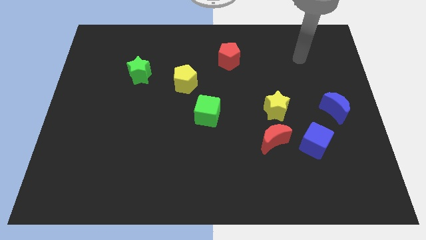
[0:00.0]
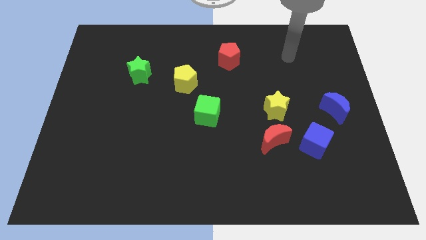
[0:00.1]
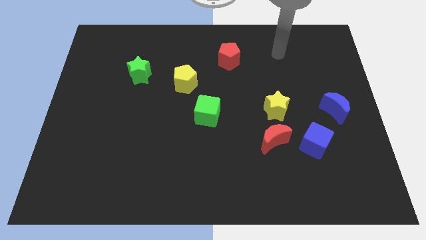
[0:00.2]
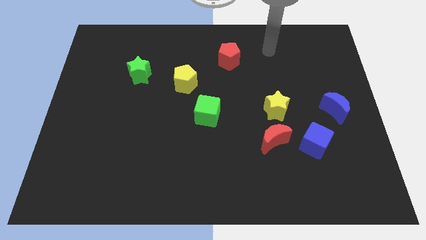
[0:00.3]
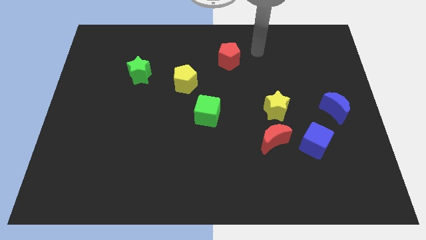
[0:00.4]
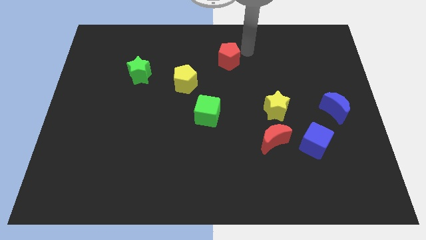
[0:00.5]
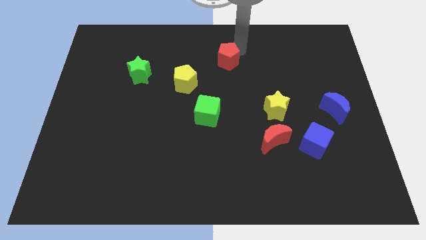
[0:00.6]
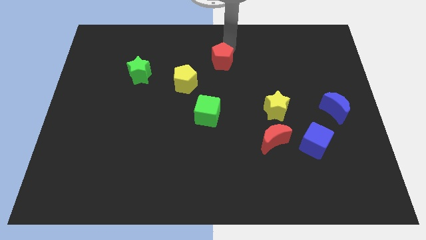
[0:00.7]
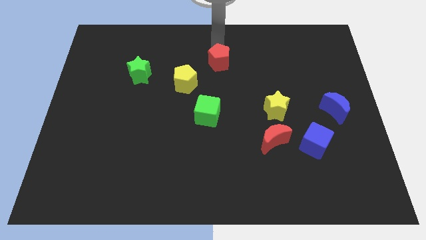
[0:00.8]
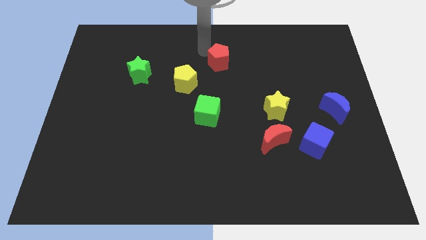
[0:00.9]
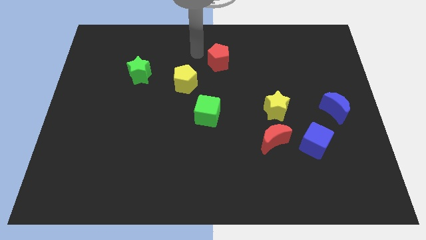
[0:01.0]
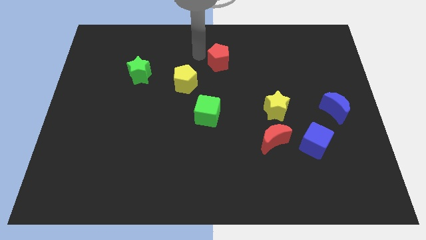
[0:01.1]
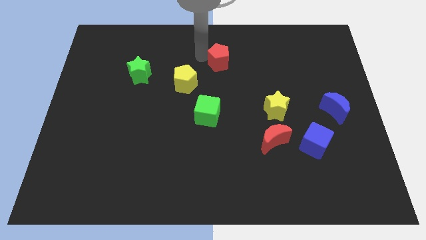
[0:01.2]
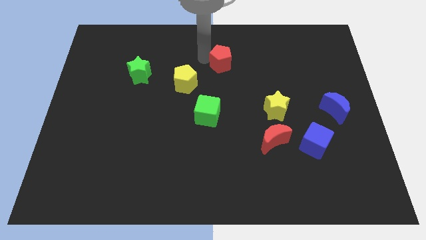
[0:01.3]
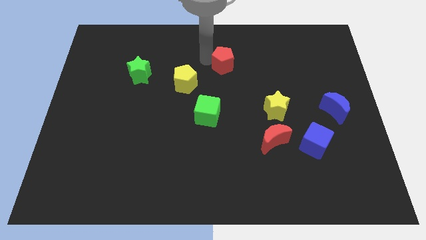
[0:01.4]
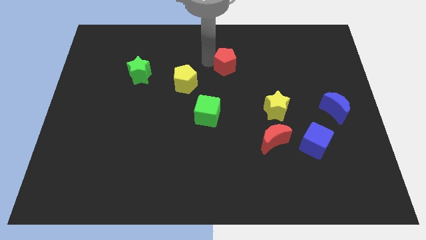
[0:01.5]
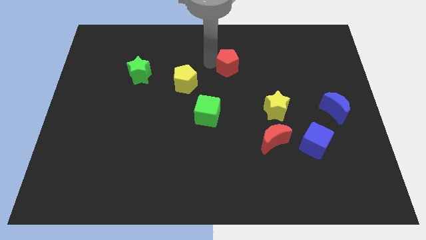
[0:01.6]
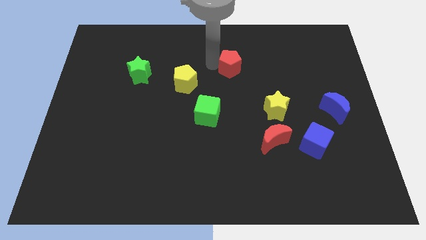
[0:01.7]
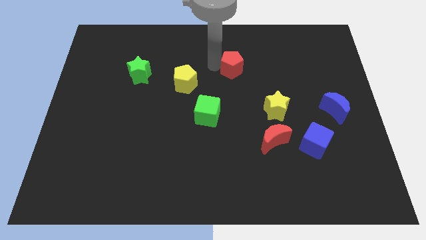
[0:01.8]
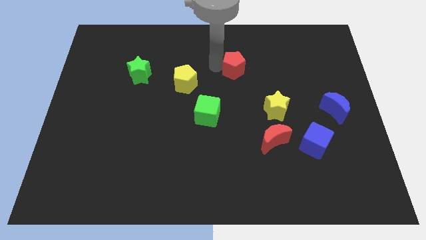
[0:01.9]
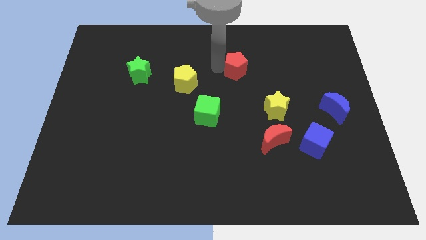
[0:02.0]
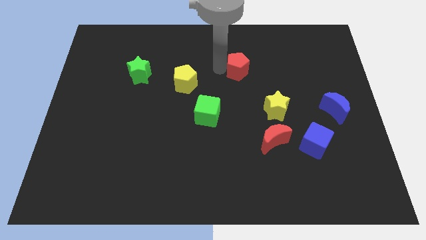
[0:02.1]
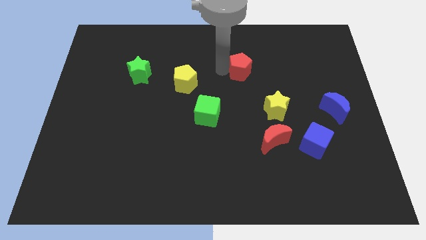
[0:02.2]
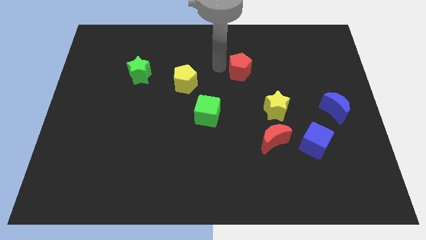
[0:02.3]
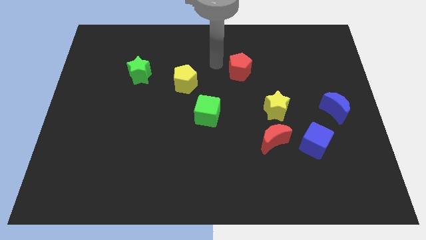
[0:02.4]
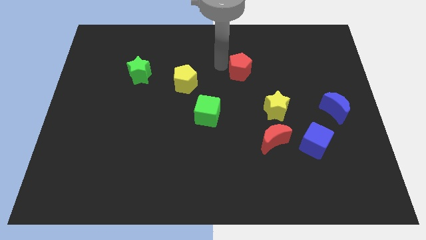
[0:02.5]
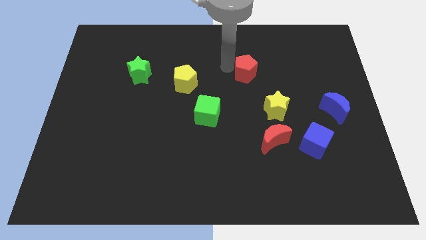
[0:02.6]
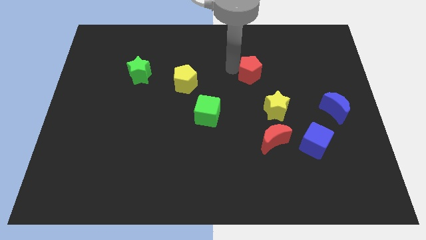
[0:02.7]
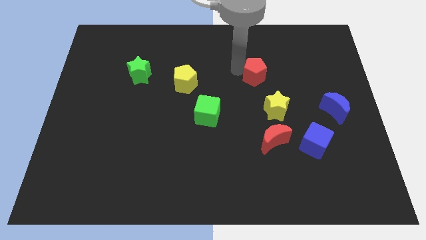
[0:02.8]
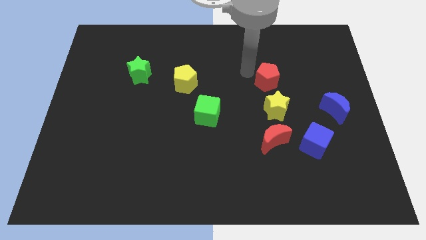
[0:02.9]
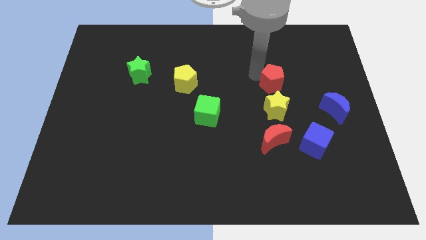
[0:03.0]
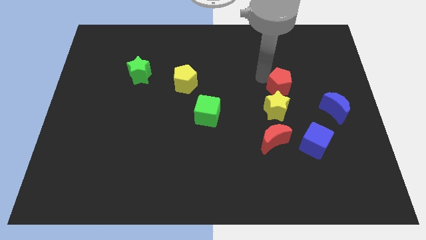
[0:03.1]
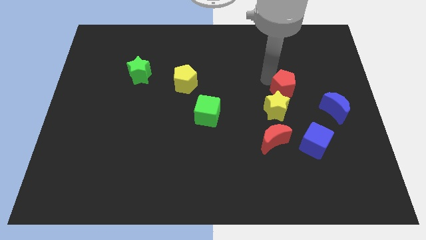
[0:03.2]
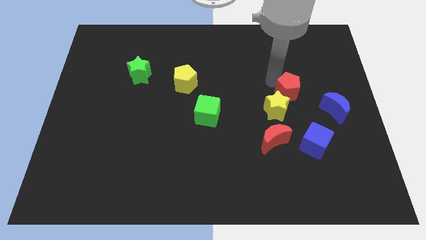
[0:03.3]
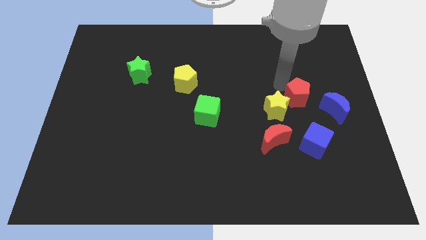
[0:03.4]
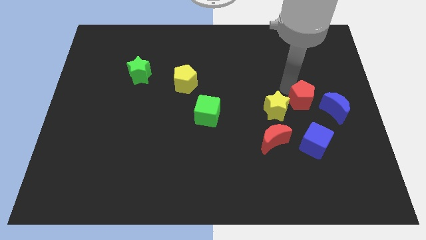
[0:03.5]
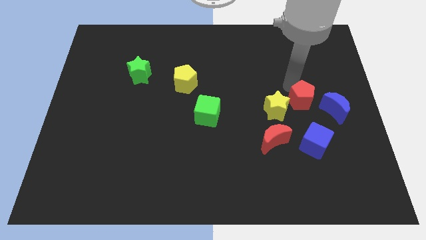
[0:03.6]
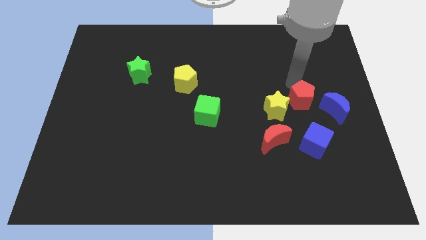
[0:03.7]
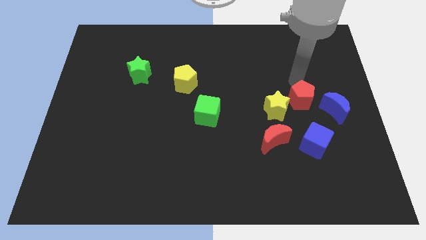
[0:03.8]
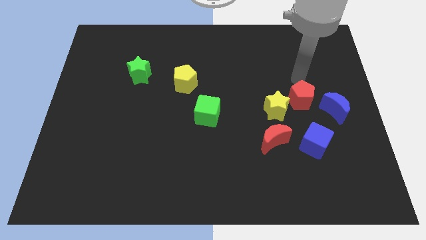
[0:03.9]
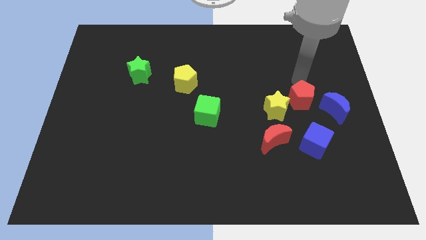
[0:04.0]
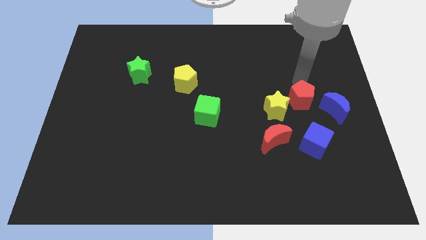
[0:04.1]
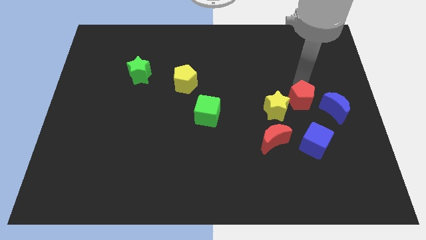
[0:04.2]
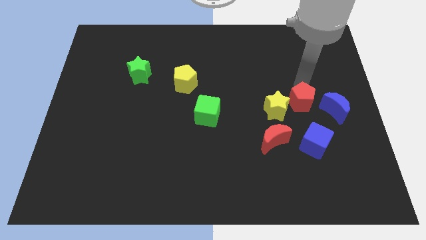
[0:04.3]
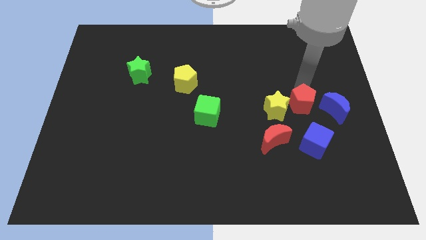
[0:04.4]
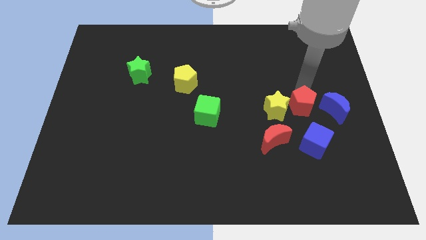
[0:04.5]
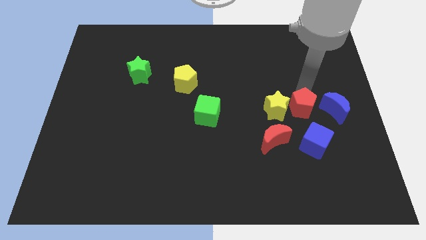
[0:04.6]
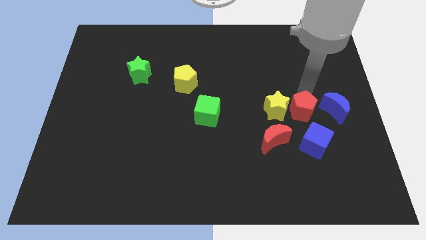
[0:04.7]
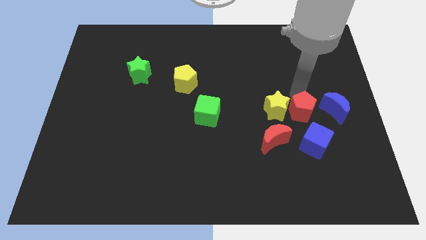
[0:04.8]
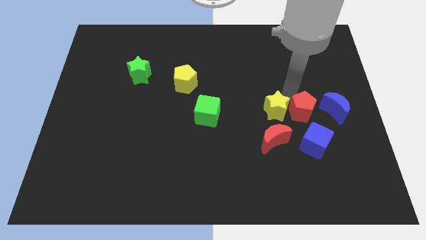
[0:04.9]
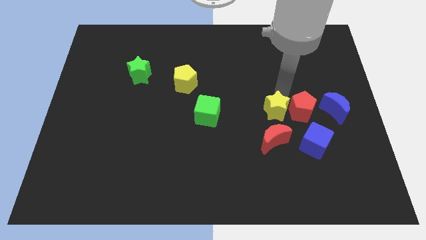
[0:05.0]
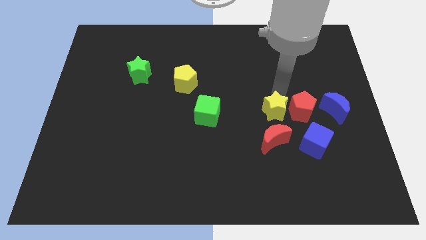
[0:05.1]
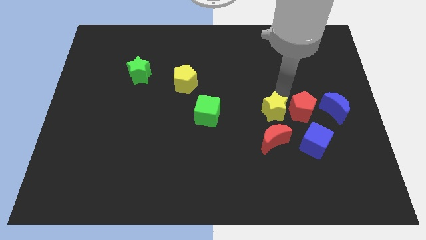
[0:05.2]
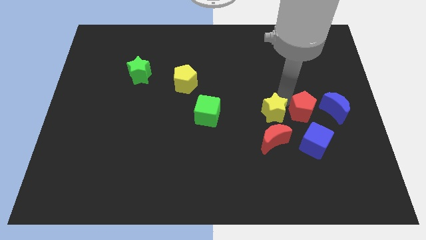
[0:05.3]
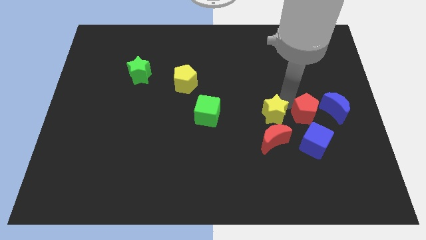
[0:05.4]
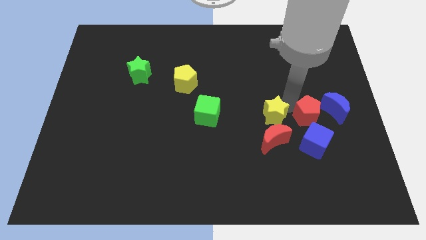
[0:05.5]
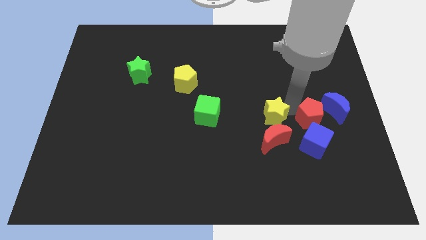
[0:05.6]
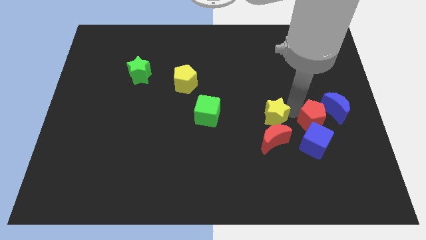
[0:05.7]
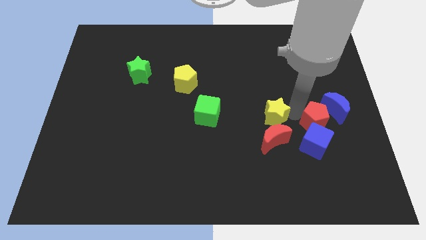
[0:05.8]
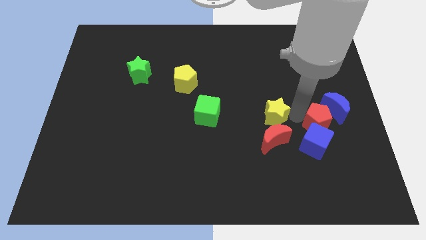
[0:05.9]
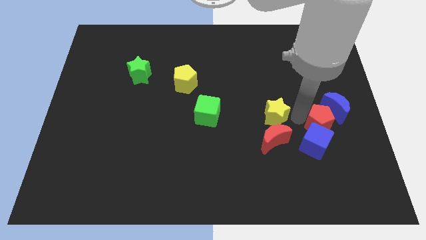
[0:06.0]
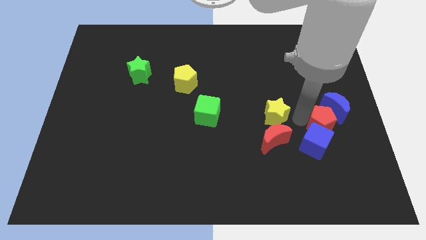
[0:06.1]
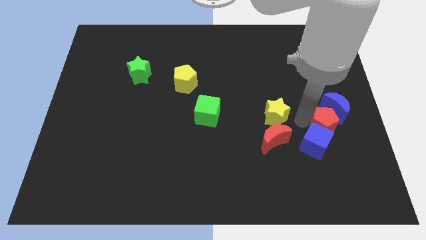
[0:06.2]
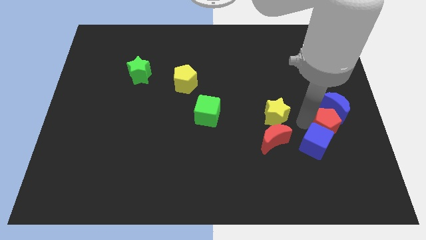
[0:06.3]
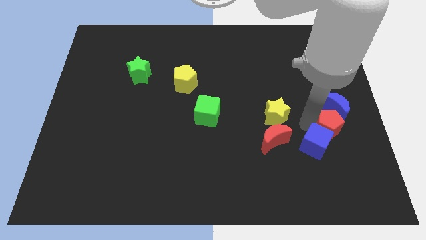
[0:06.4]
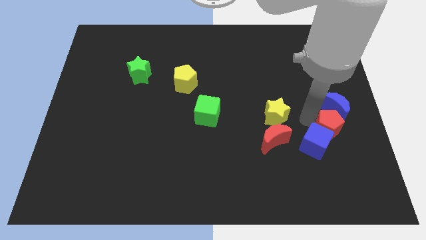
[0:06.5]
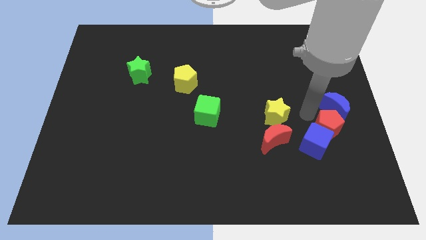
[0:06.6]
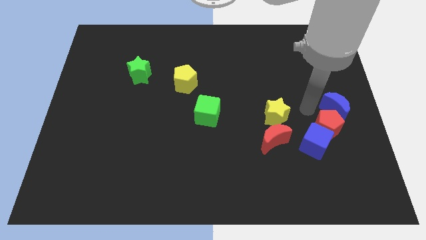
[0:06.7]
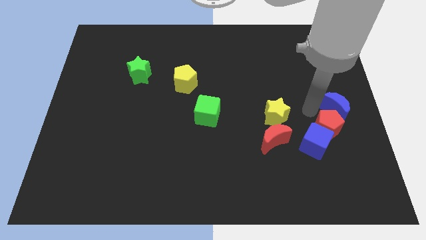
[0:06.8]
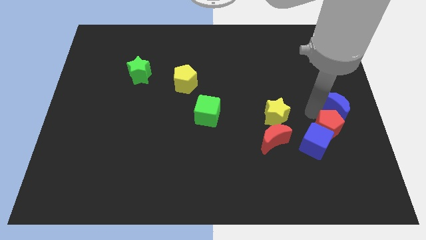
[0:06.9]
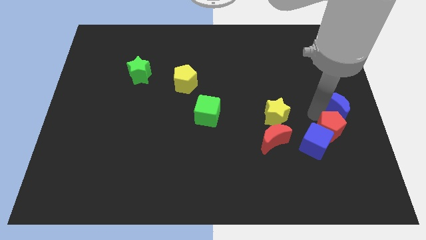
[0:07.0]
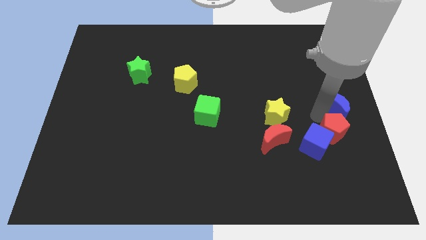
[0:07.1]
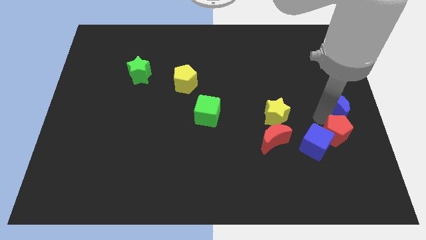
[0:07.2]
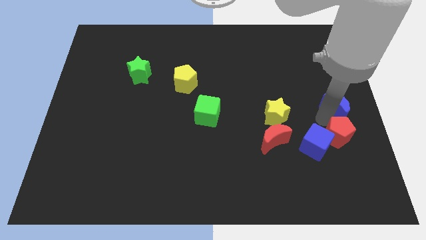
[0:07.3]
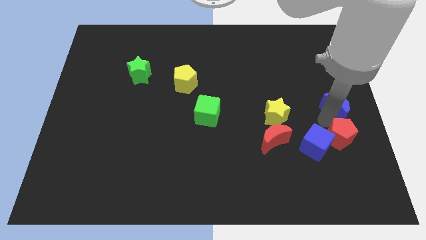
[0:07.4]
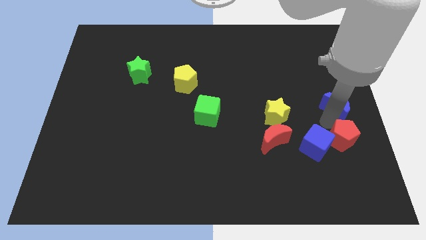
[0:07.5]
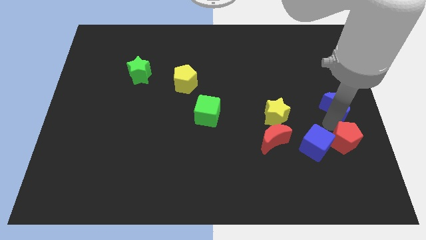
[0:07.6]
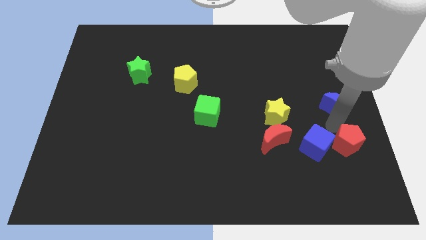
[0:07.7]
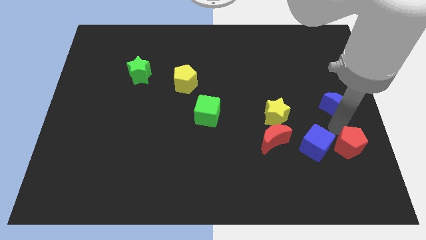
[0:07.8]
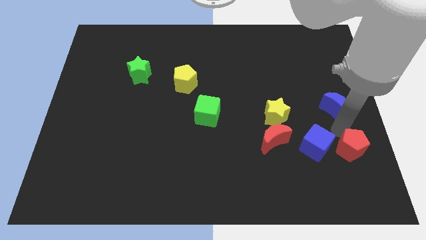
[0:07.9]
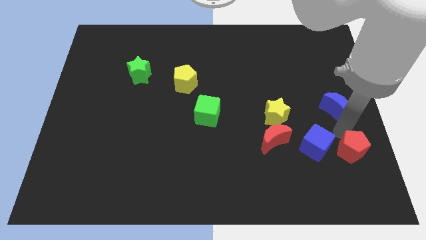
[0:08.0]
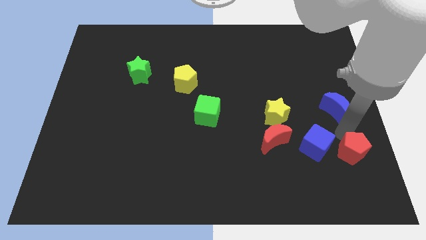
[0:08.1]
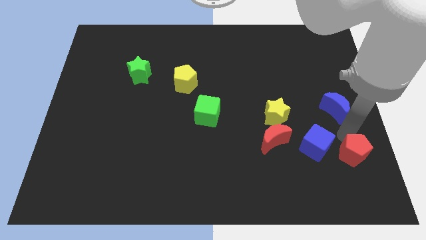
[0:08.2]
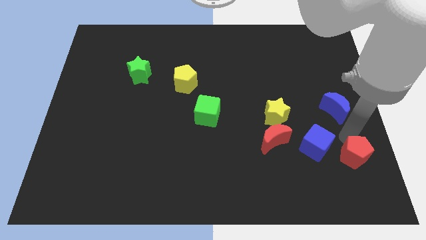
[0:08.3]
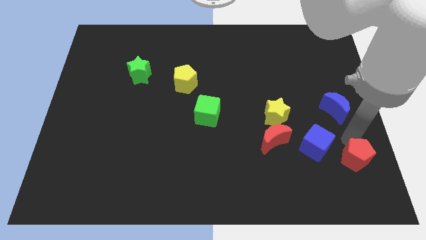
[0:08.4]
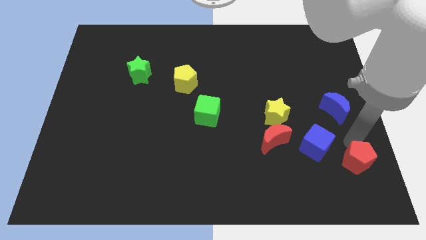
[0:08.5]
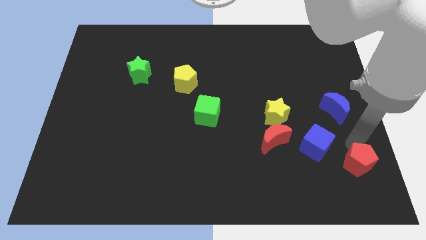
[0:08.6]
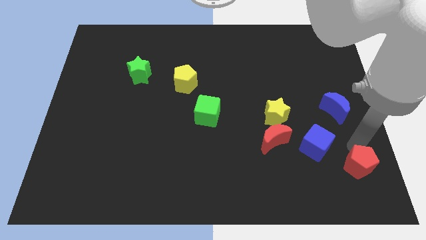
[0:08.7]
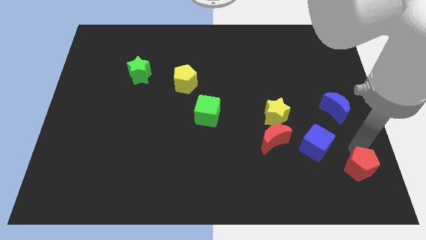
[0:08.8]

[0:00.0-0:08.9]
slide the red pentagon to the bottom right of the board
